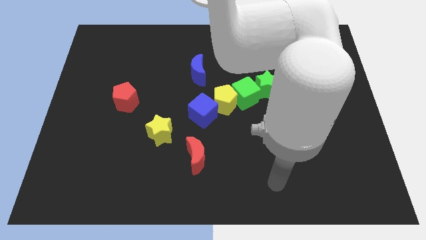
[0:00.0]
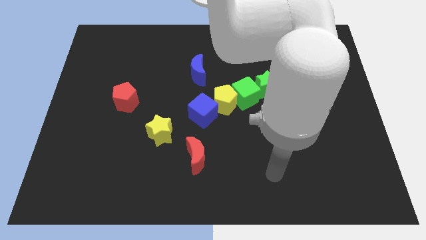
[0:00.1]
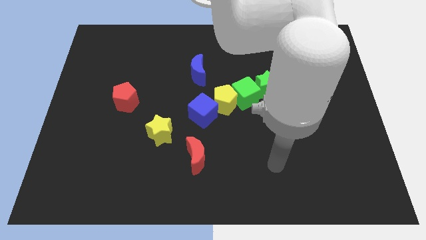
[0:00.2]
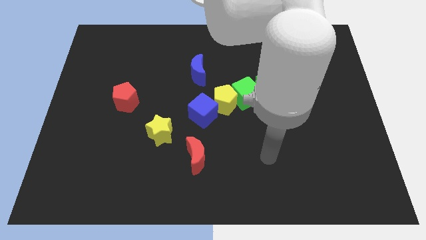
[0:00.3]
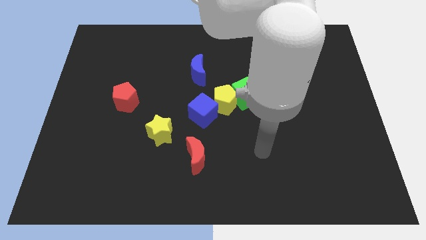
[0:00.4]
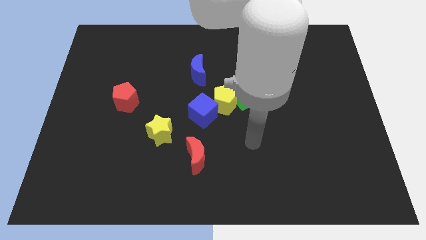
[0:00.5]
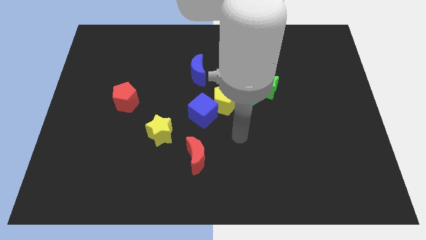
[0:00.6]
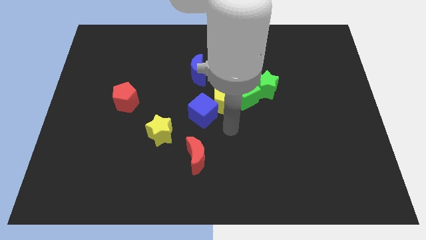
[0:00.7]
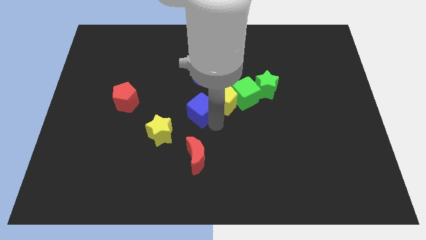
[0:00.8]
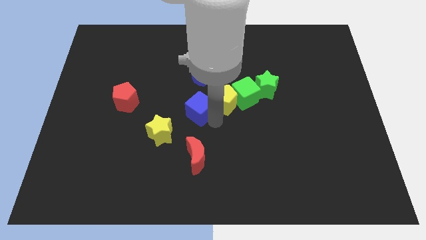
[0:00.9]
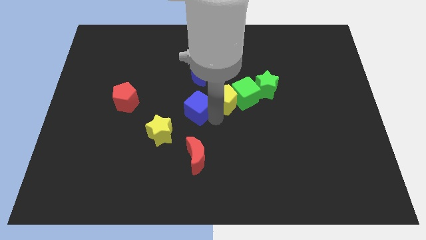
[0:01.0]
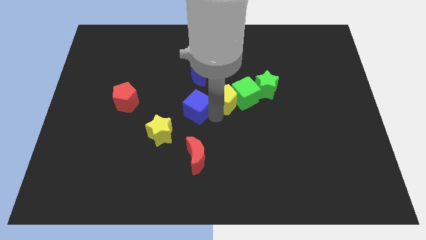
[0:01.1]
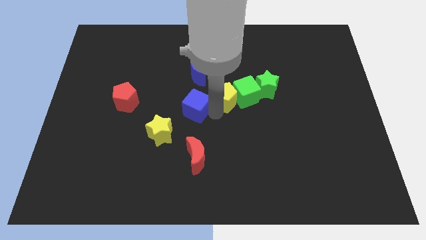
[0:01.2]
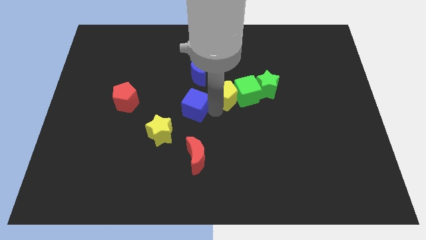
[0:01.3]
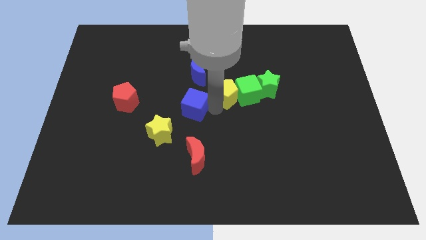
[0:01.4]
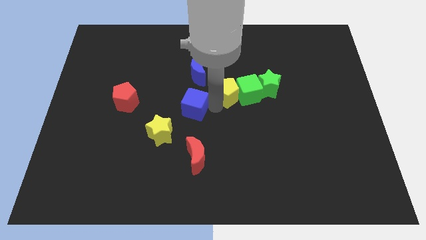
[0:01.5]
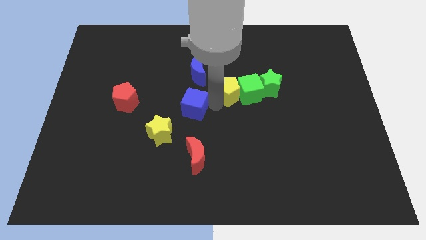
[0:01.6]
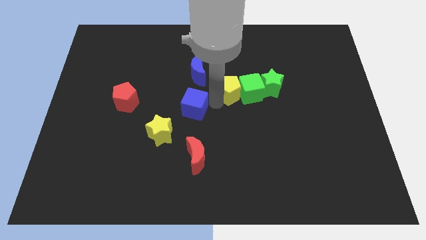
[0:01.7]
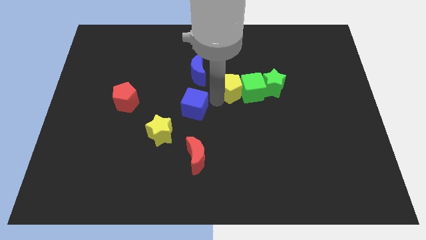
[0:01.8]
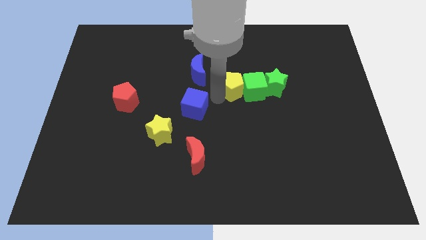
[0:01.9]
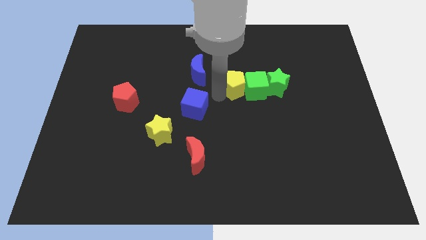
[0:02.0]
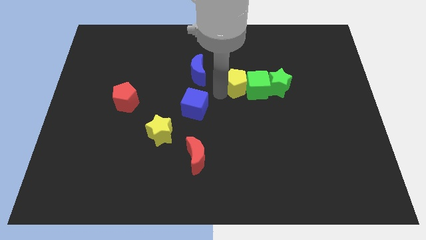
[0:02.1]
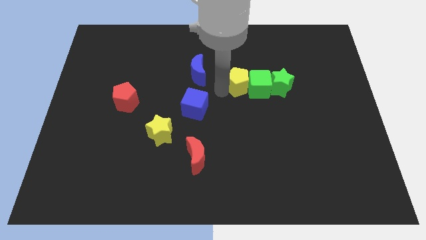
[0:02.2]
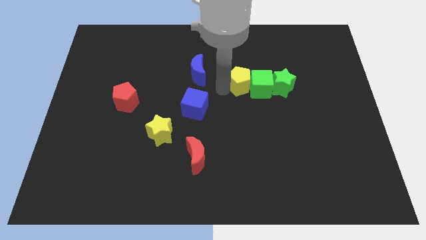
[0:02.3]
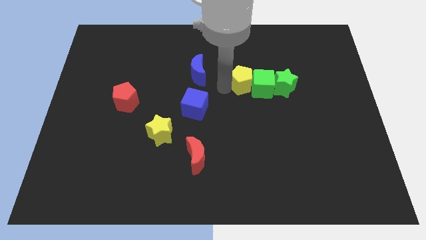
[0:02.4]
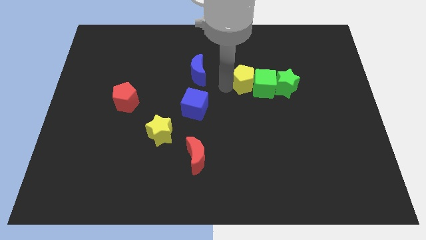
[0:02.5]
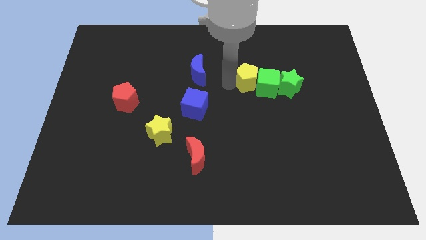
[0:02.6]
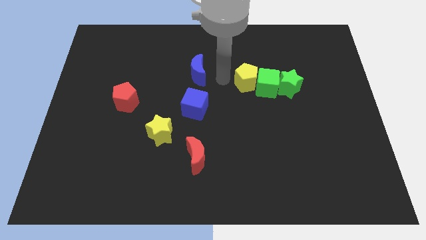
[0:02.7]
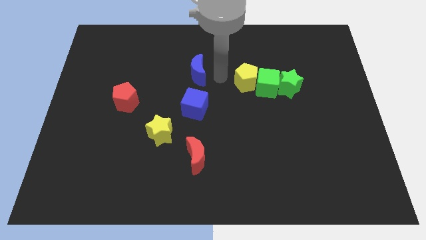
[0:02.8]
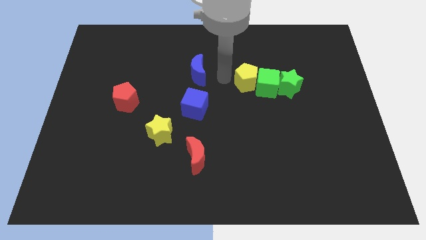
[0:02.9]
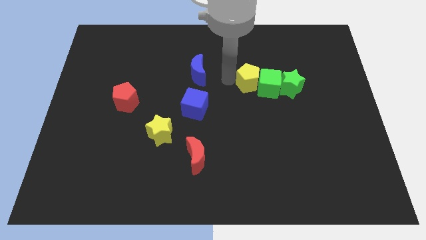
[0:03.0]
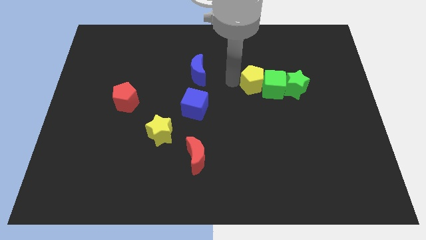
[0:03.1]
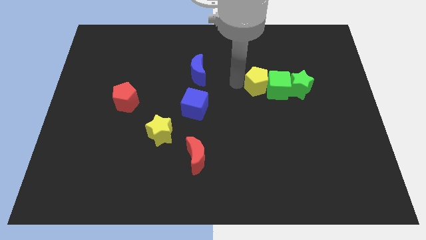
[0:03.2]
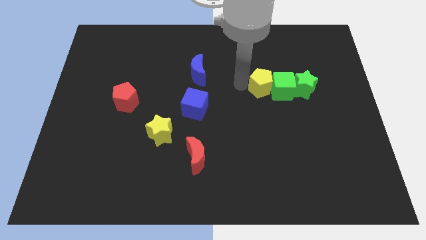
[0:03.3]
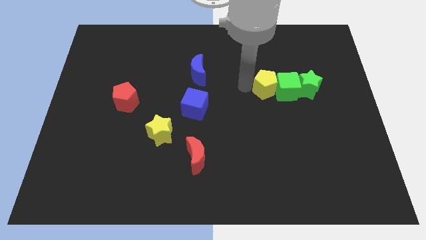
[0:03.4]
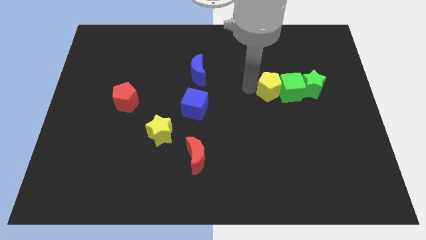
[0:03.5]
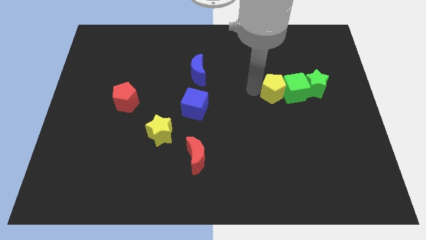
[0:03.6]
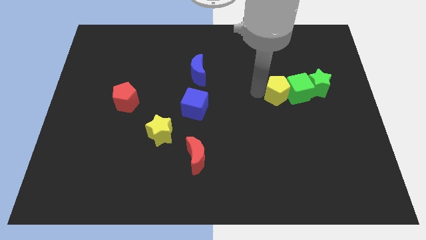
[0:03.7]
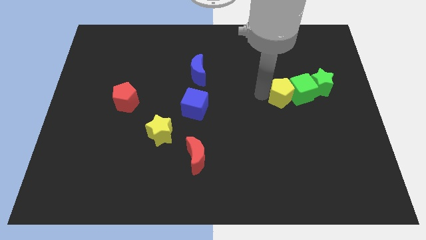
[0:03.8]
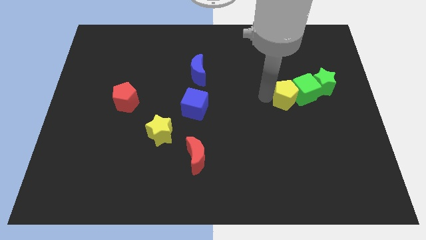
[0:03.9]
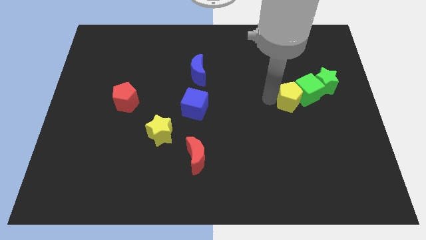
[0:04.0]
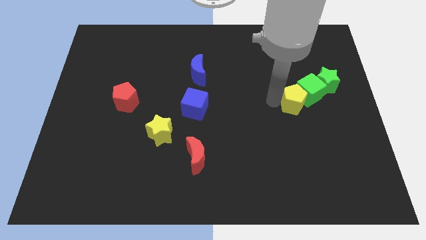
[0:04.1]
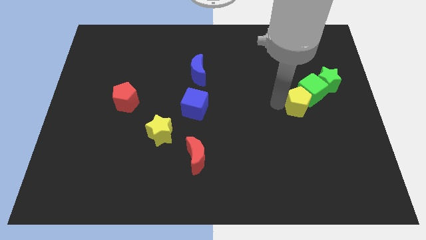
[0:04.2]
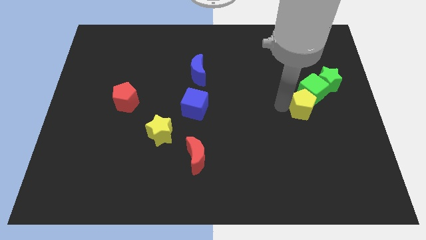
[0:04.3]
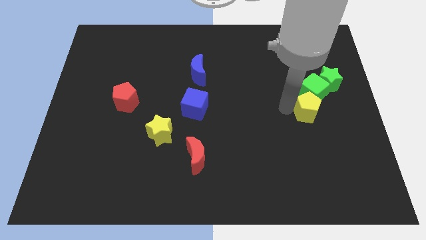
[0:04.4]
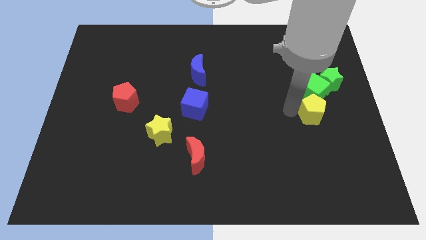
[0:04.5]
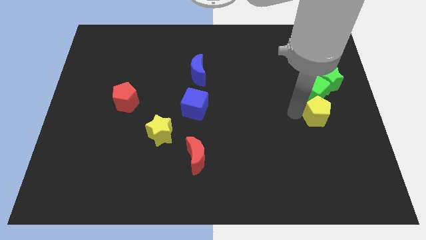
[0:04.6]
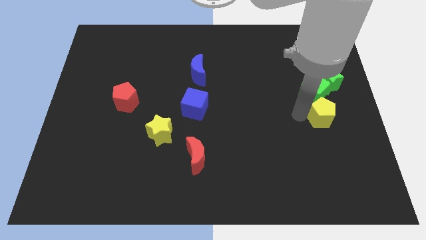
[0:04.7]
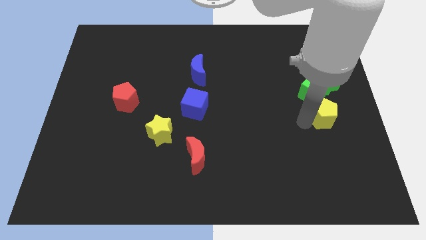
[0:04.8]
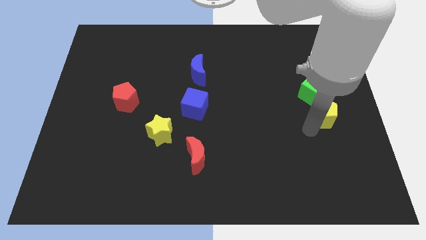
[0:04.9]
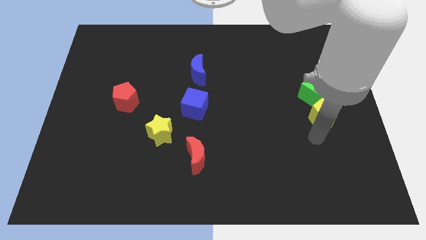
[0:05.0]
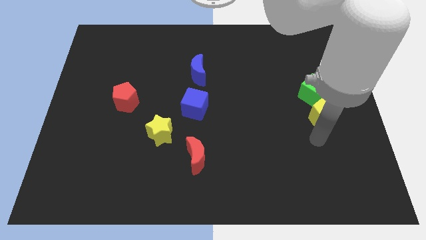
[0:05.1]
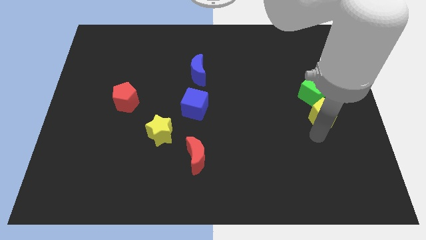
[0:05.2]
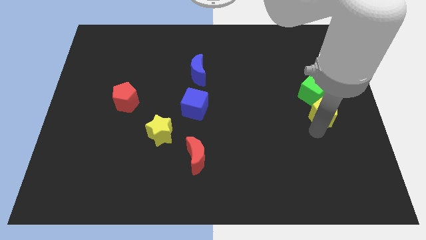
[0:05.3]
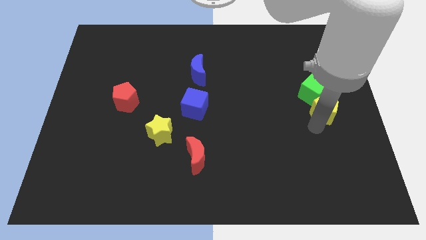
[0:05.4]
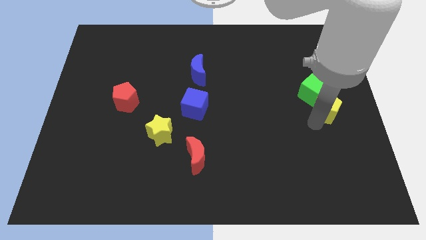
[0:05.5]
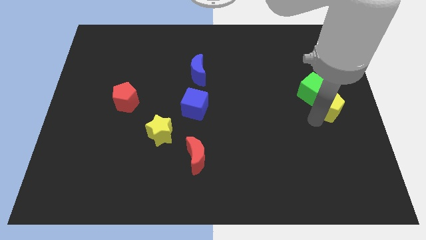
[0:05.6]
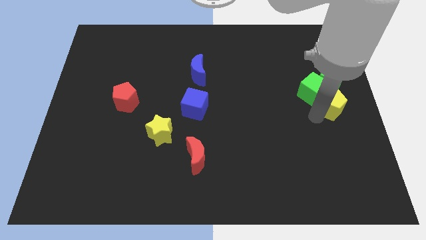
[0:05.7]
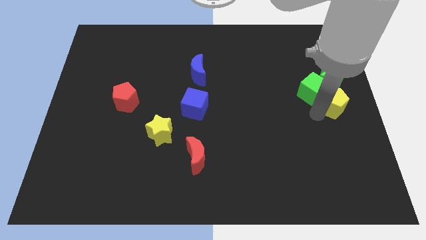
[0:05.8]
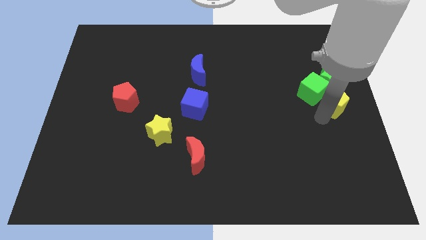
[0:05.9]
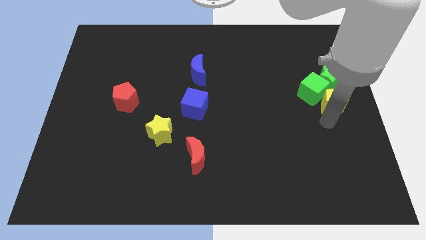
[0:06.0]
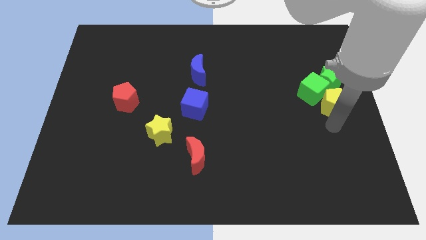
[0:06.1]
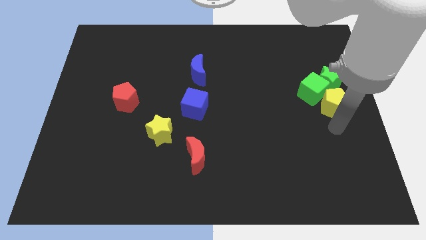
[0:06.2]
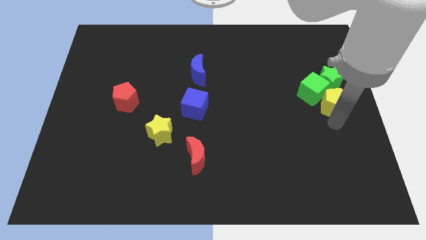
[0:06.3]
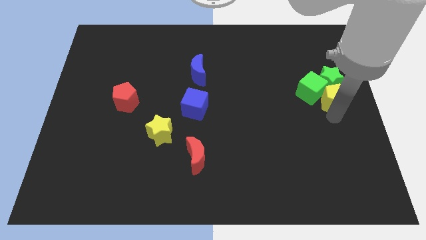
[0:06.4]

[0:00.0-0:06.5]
move the yellow pentagon to the green star

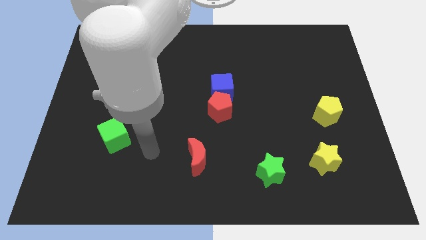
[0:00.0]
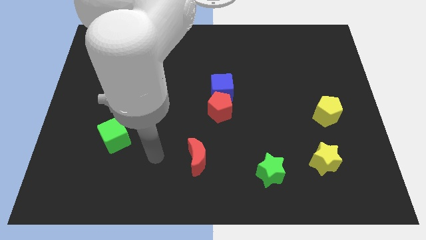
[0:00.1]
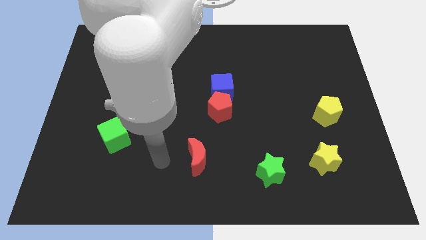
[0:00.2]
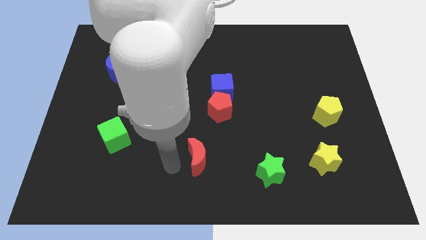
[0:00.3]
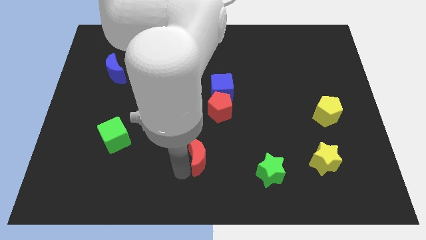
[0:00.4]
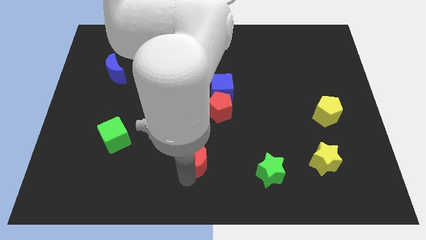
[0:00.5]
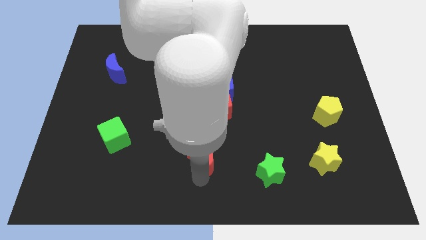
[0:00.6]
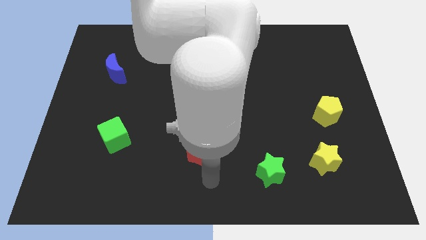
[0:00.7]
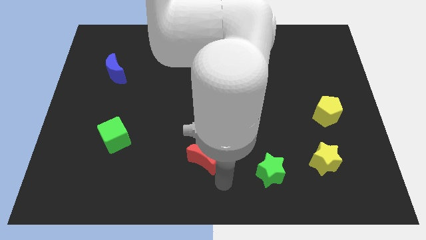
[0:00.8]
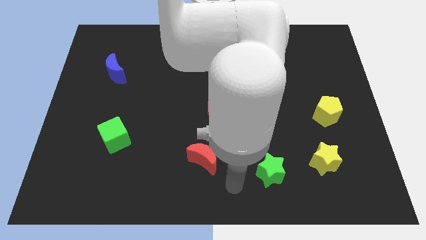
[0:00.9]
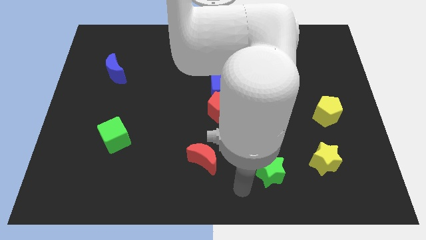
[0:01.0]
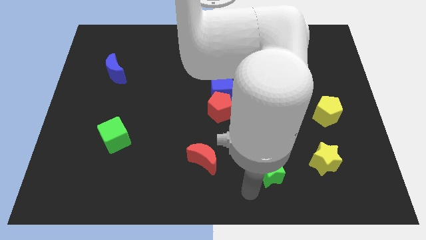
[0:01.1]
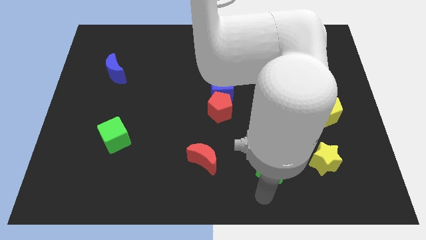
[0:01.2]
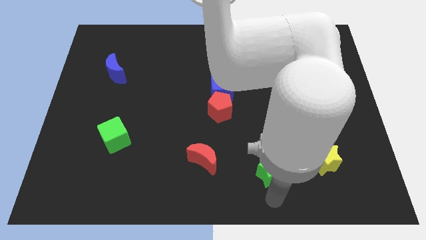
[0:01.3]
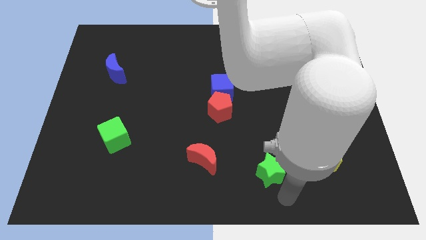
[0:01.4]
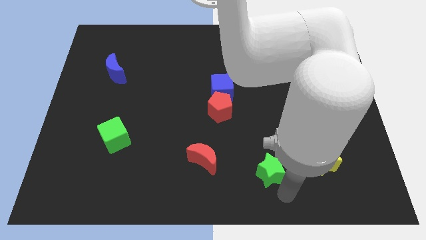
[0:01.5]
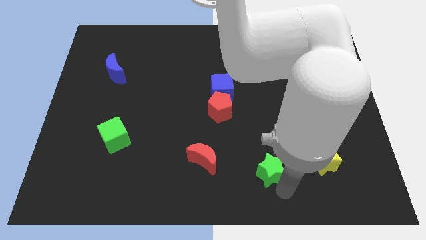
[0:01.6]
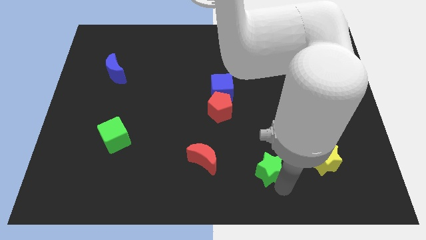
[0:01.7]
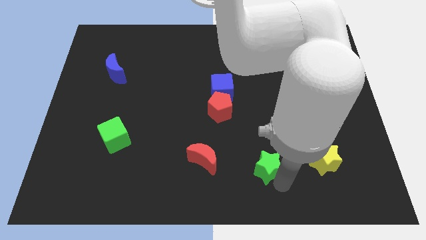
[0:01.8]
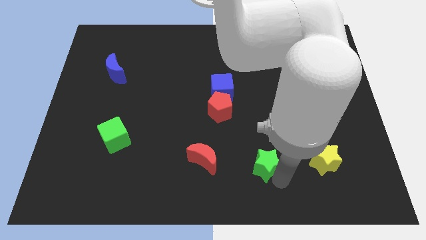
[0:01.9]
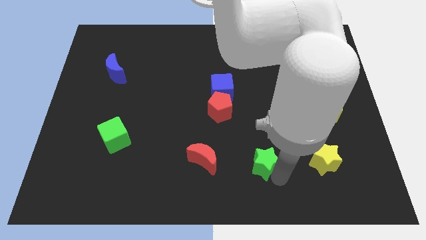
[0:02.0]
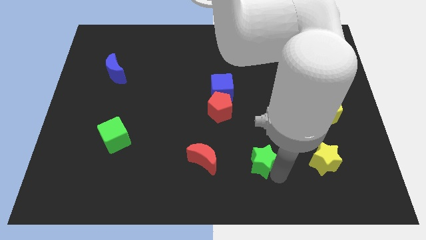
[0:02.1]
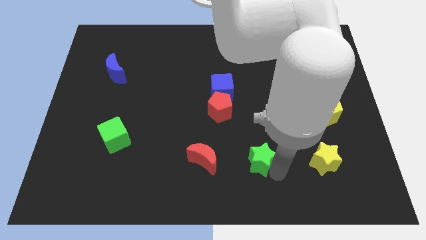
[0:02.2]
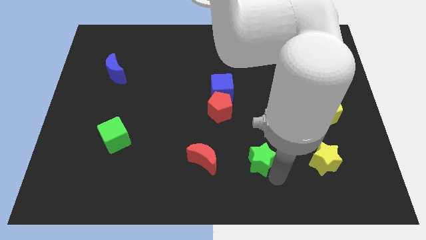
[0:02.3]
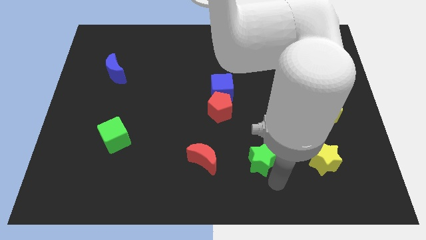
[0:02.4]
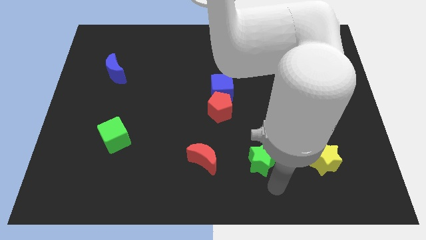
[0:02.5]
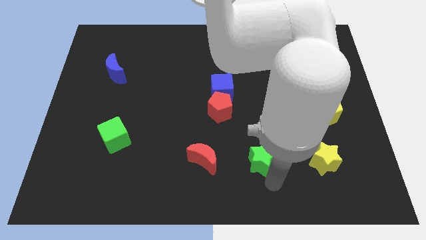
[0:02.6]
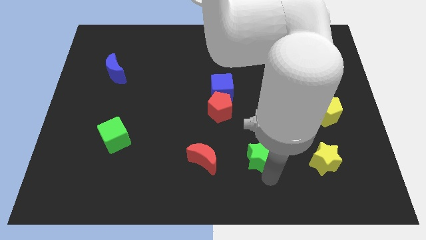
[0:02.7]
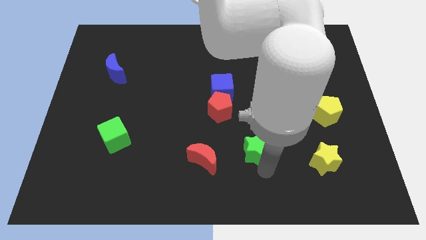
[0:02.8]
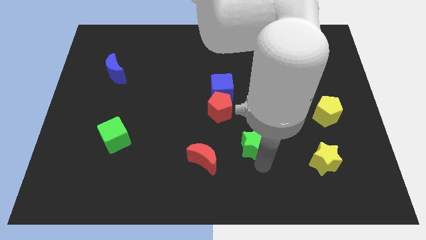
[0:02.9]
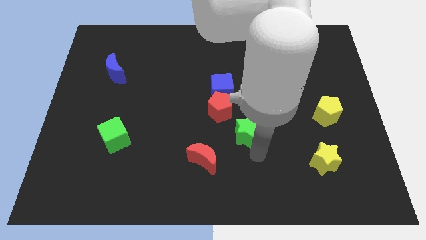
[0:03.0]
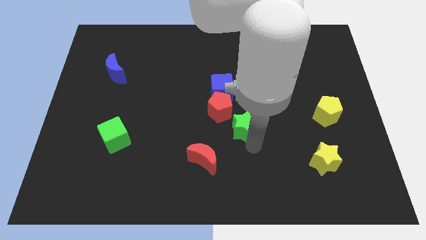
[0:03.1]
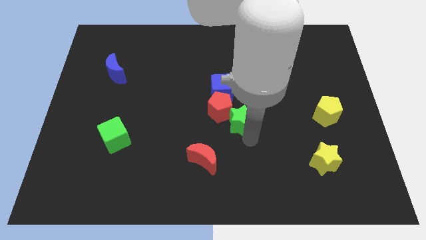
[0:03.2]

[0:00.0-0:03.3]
move the green star towards the red pentagon
